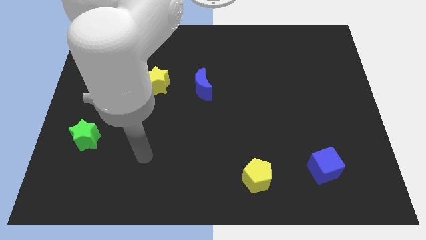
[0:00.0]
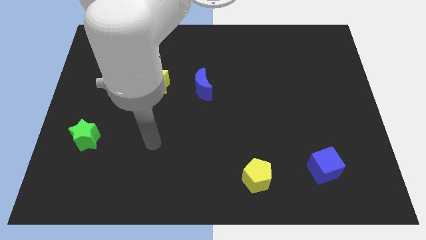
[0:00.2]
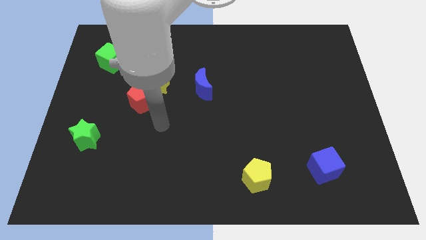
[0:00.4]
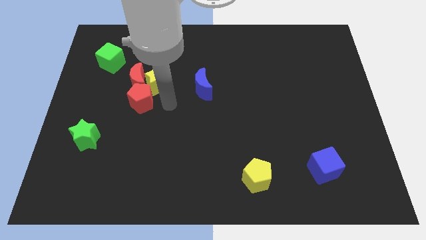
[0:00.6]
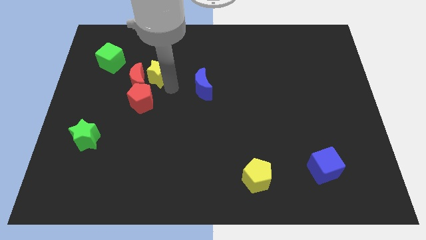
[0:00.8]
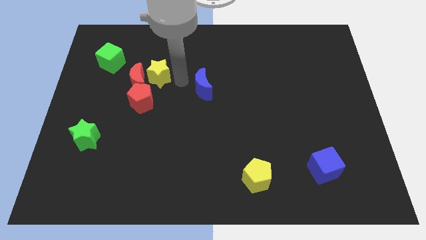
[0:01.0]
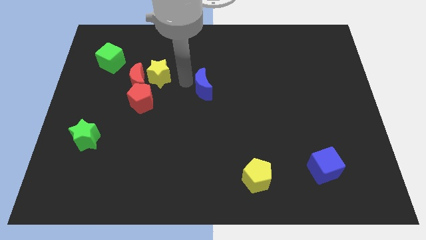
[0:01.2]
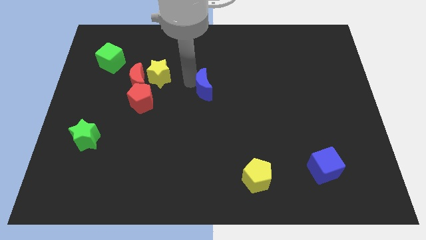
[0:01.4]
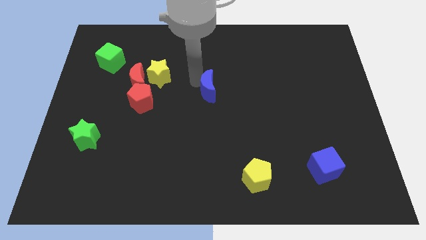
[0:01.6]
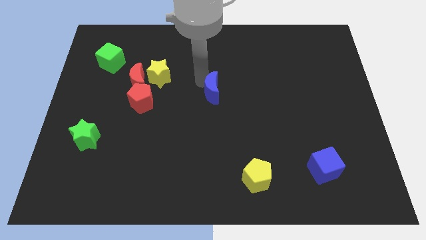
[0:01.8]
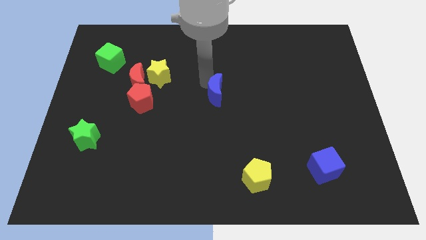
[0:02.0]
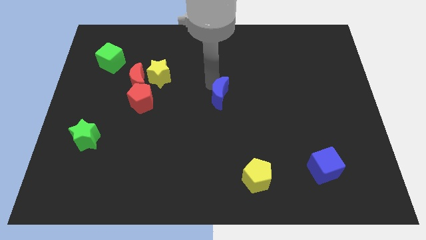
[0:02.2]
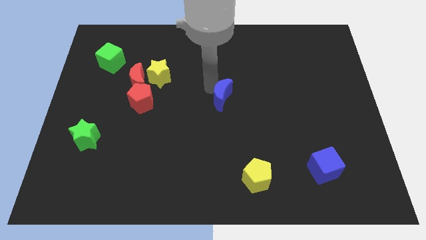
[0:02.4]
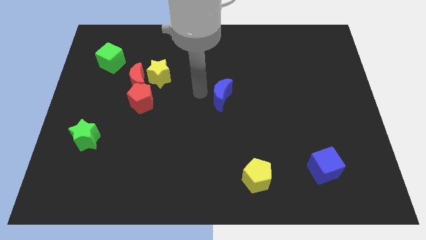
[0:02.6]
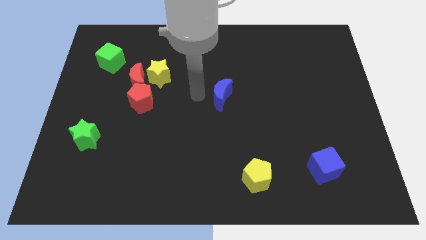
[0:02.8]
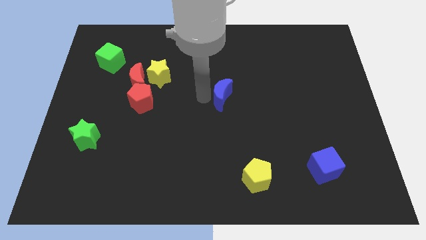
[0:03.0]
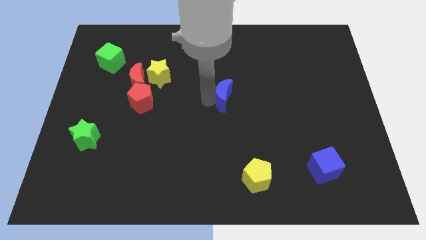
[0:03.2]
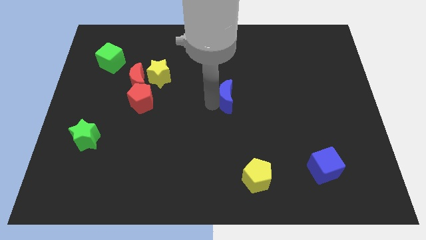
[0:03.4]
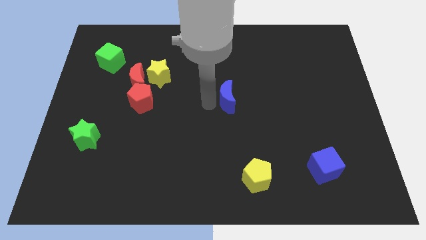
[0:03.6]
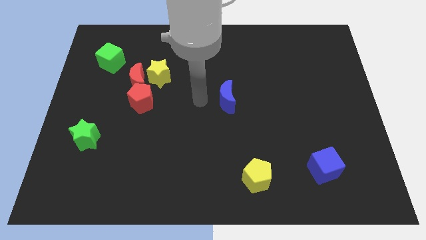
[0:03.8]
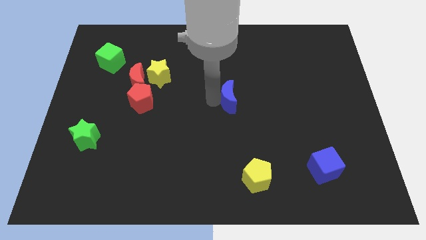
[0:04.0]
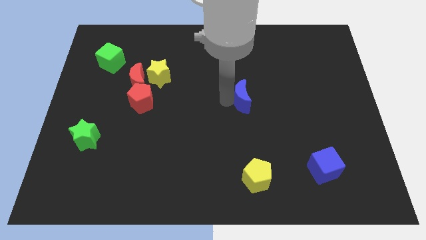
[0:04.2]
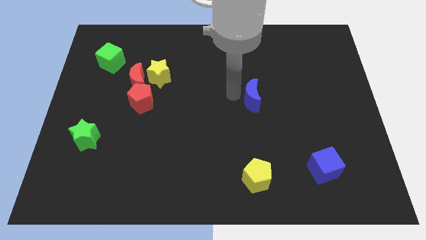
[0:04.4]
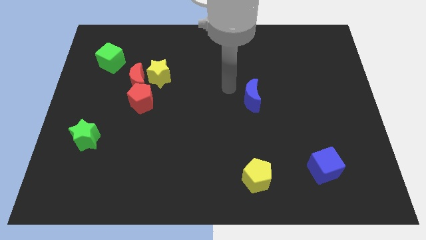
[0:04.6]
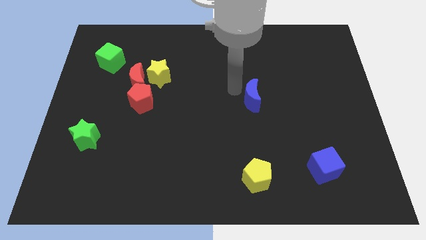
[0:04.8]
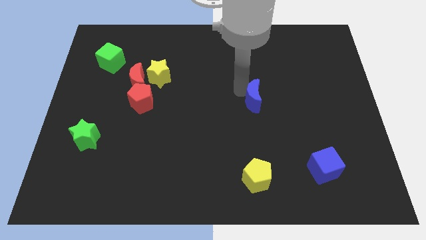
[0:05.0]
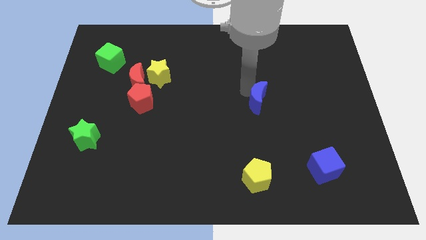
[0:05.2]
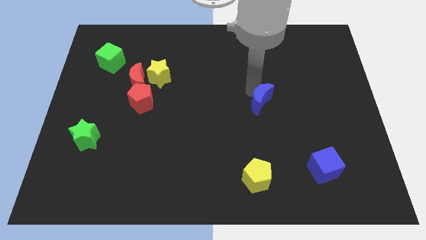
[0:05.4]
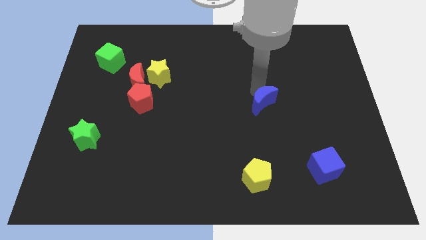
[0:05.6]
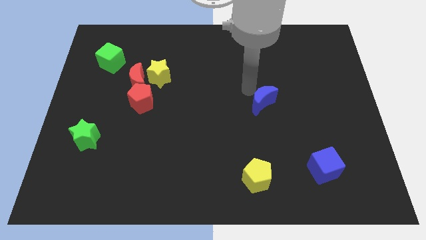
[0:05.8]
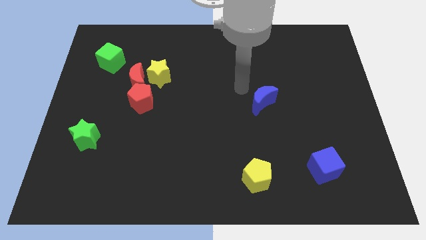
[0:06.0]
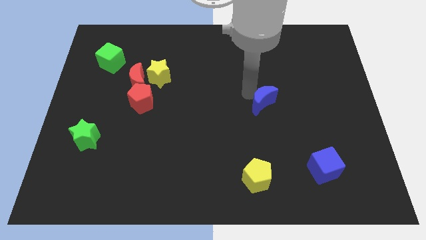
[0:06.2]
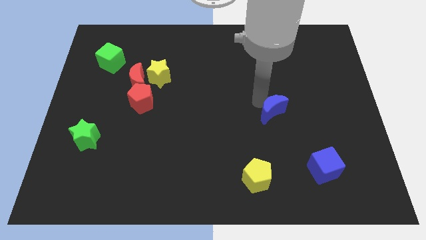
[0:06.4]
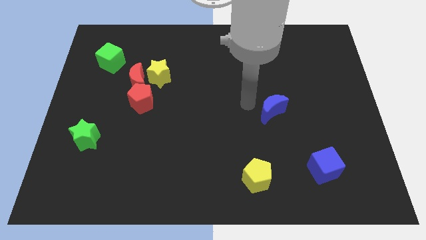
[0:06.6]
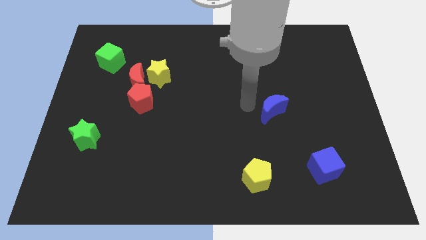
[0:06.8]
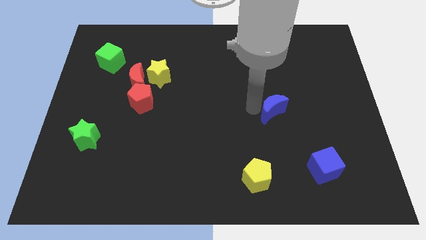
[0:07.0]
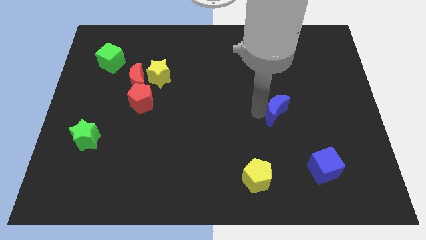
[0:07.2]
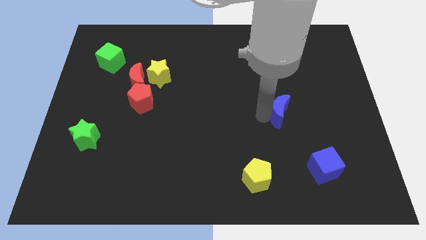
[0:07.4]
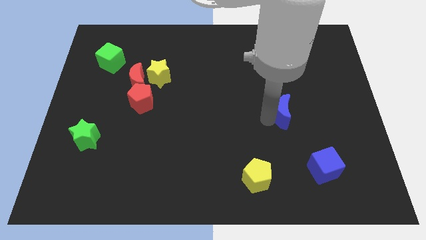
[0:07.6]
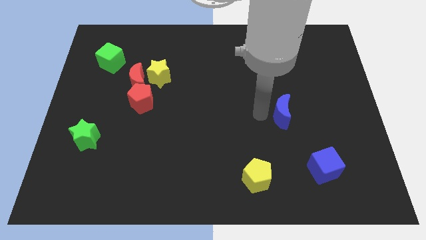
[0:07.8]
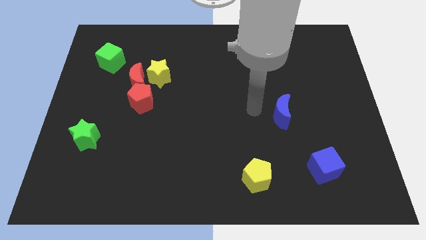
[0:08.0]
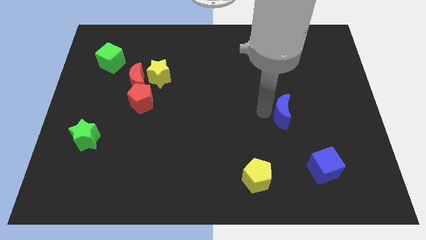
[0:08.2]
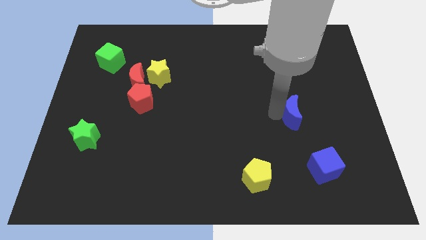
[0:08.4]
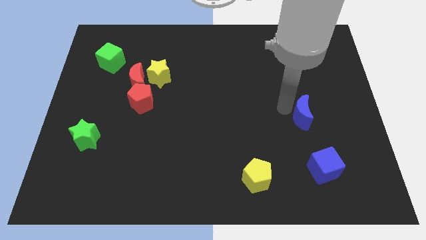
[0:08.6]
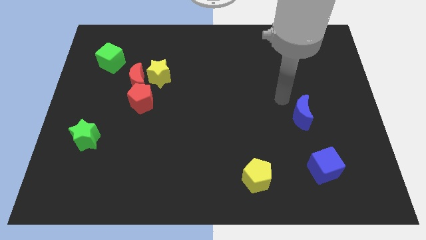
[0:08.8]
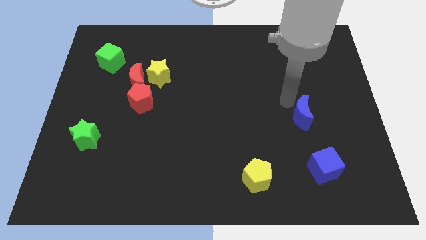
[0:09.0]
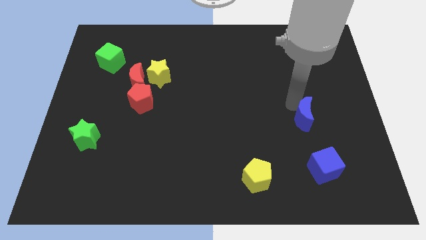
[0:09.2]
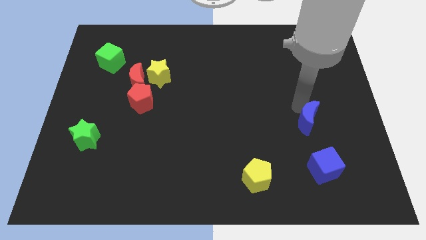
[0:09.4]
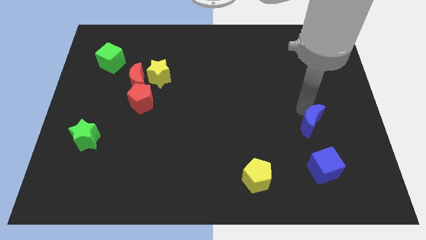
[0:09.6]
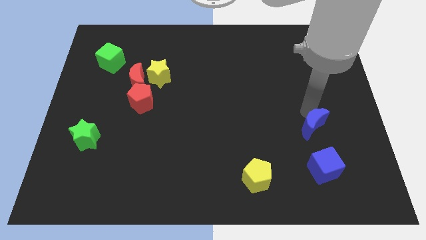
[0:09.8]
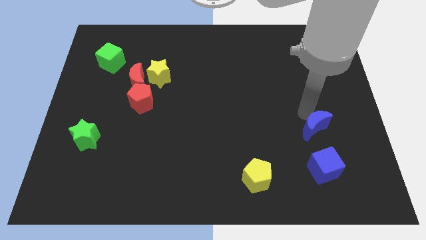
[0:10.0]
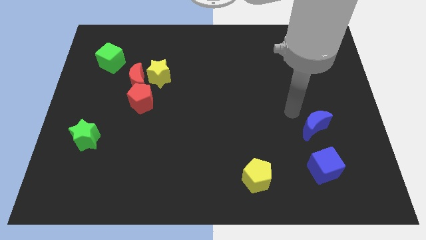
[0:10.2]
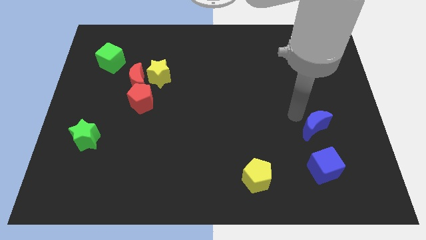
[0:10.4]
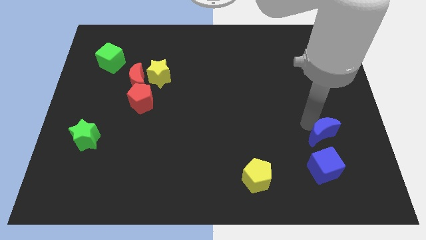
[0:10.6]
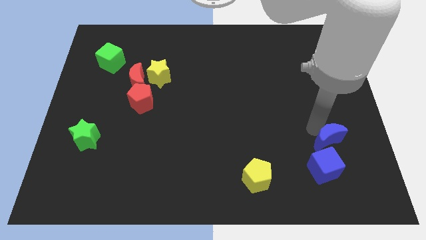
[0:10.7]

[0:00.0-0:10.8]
slide the blue moon to the top right of the blue cube

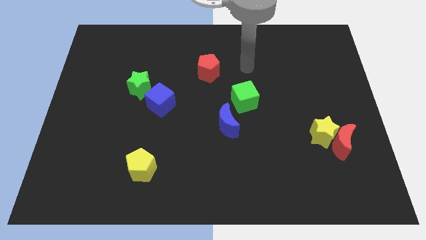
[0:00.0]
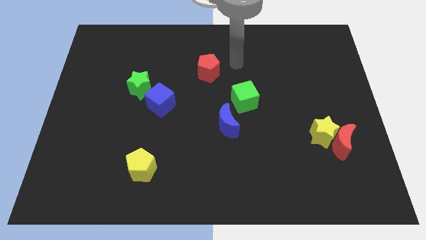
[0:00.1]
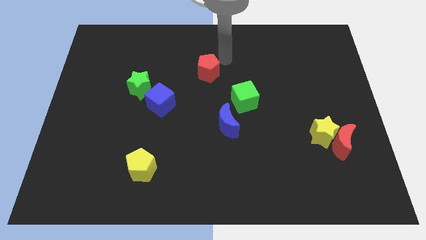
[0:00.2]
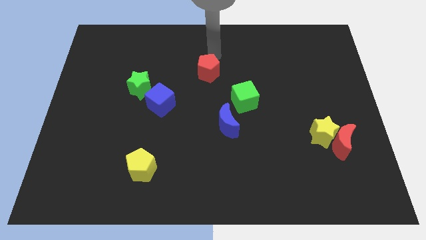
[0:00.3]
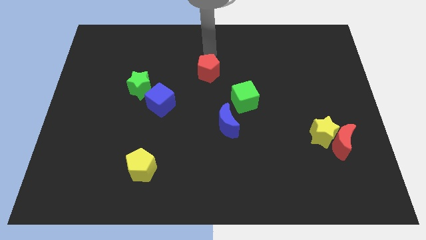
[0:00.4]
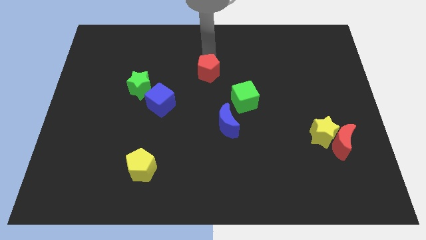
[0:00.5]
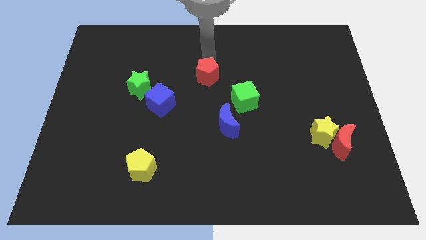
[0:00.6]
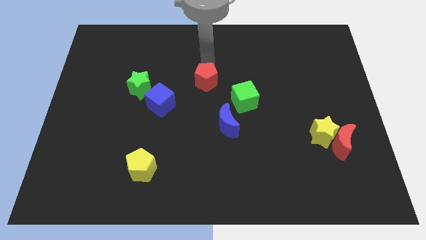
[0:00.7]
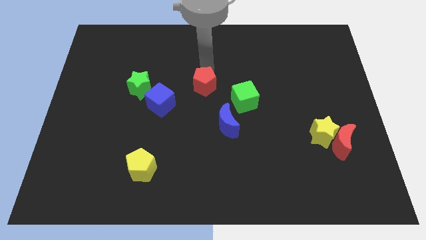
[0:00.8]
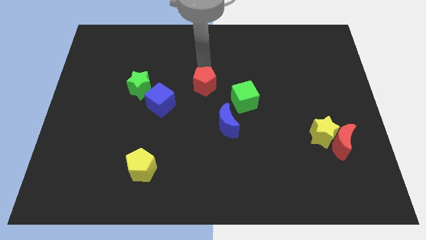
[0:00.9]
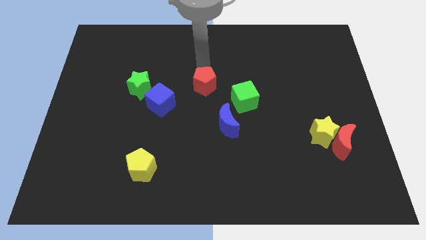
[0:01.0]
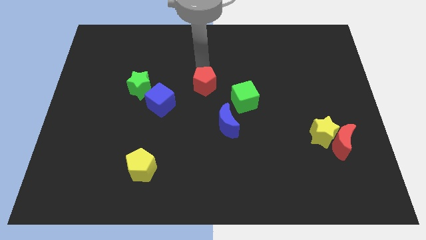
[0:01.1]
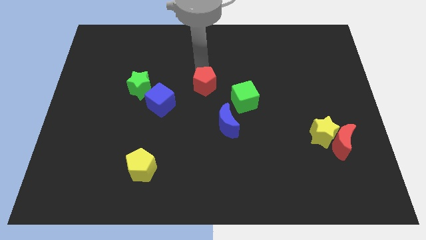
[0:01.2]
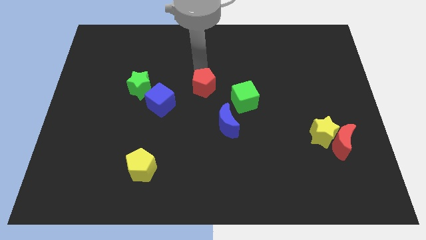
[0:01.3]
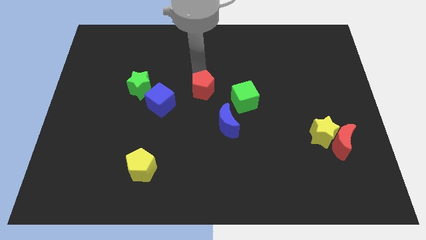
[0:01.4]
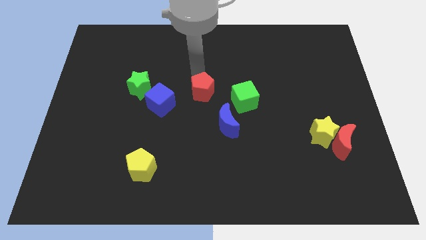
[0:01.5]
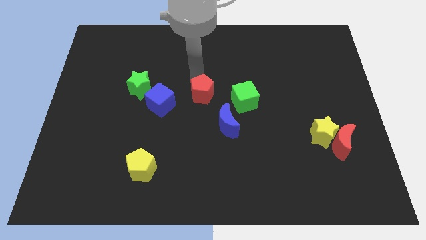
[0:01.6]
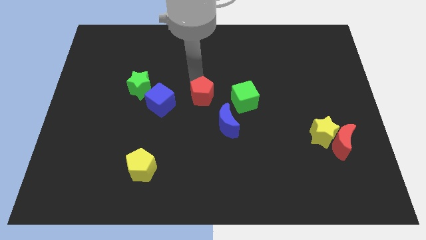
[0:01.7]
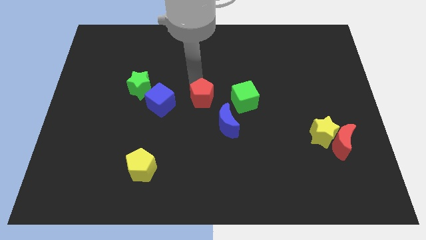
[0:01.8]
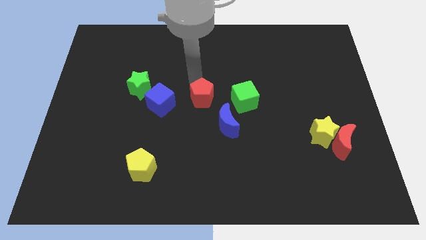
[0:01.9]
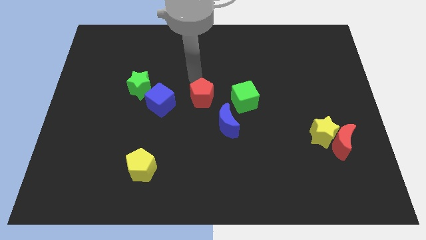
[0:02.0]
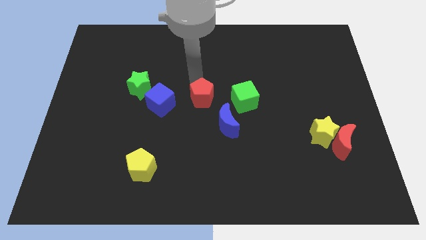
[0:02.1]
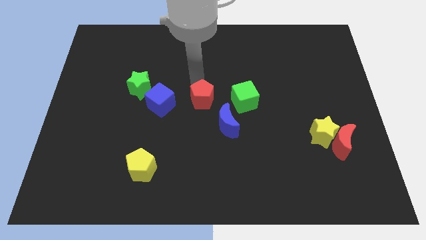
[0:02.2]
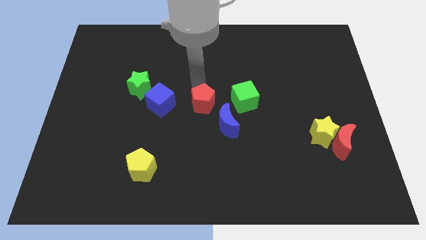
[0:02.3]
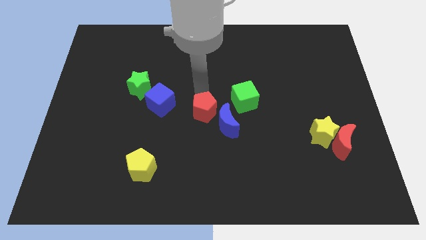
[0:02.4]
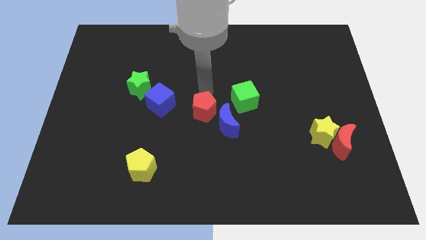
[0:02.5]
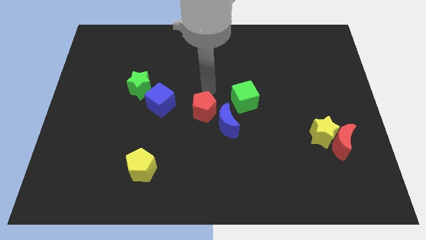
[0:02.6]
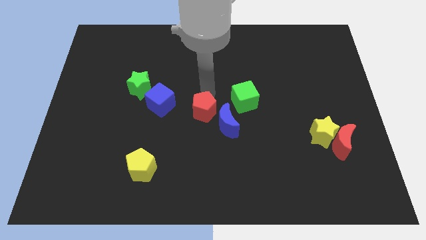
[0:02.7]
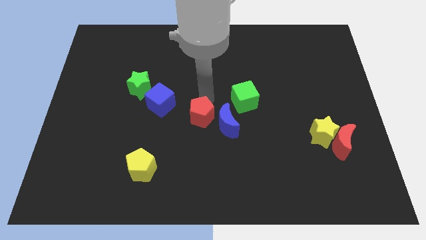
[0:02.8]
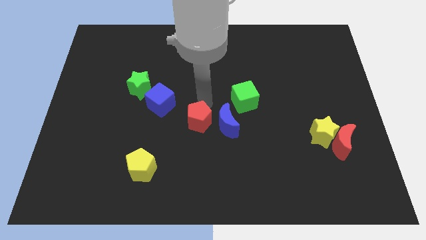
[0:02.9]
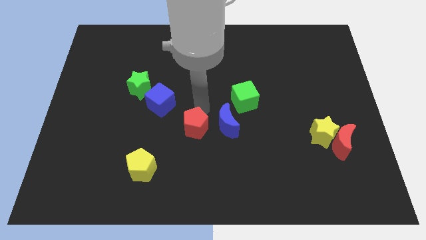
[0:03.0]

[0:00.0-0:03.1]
push the red pentagon to the bottom left side of the blue moon
